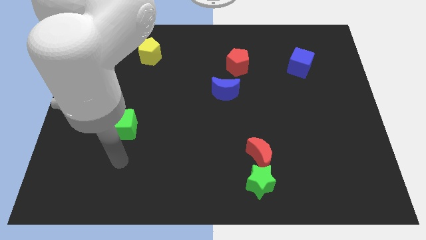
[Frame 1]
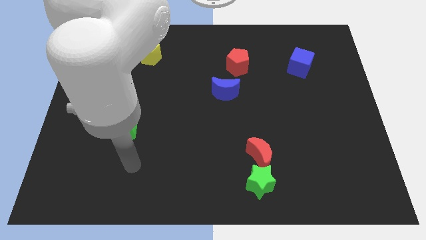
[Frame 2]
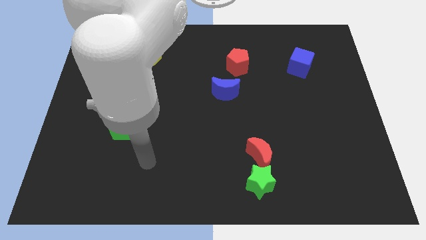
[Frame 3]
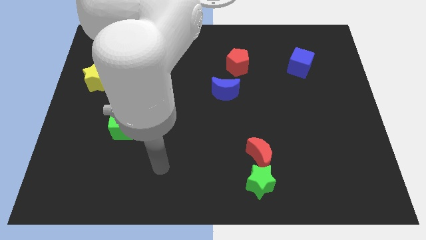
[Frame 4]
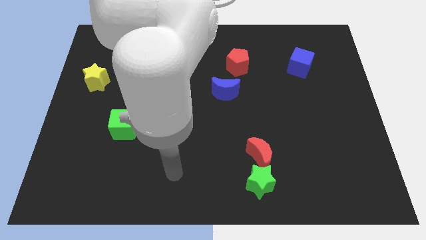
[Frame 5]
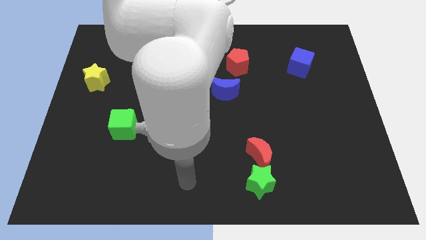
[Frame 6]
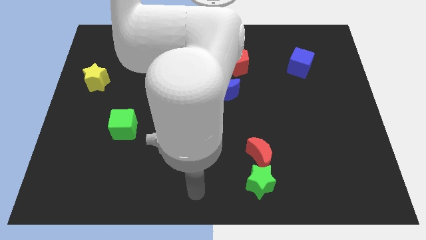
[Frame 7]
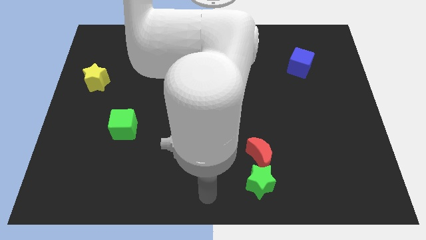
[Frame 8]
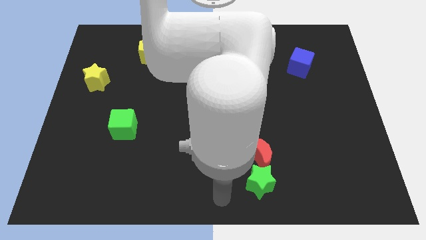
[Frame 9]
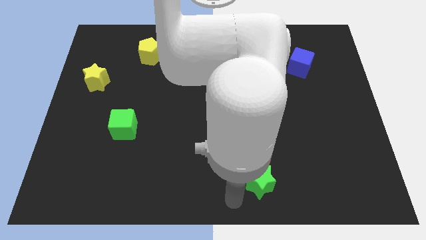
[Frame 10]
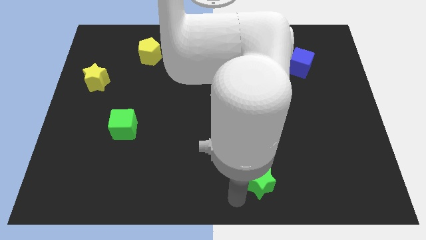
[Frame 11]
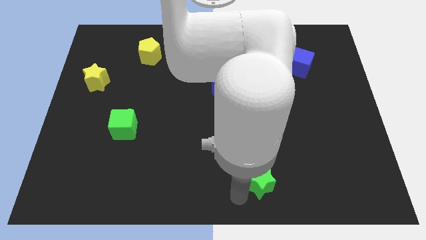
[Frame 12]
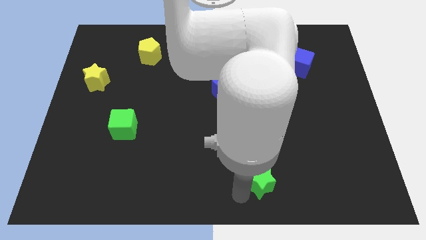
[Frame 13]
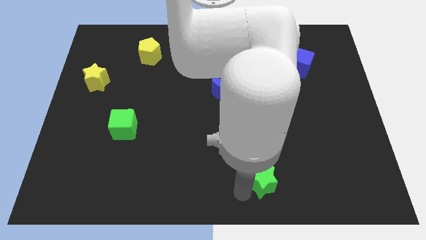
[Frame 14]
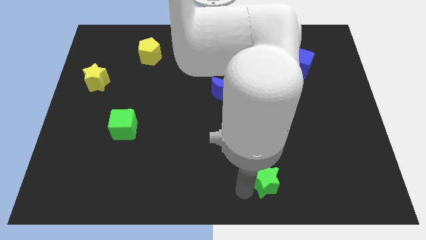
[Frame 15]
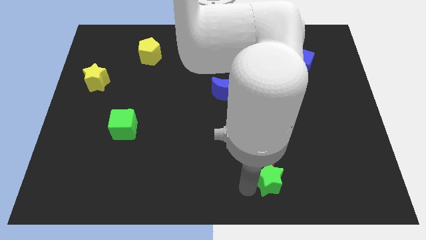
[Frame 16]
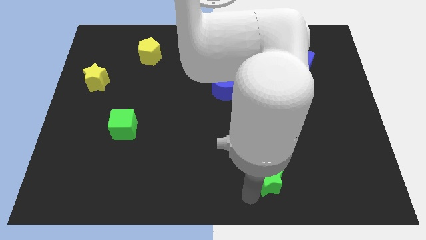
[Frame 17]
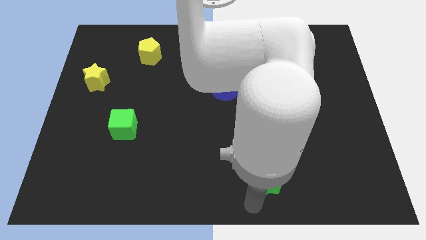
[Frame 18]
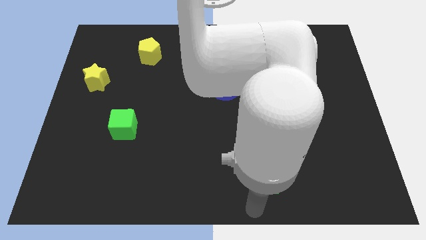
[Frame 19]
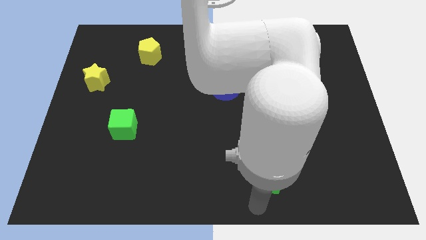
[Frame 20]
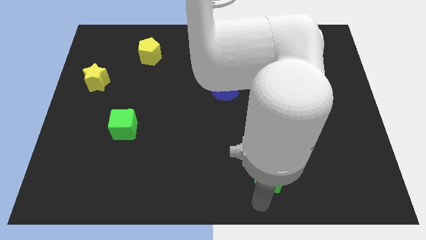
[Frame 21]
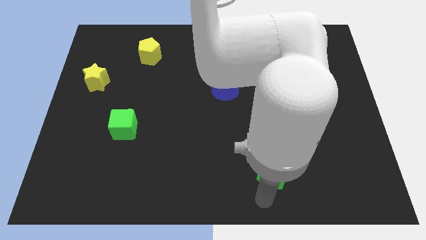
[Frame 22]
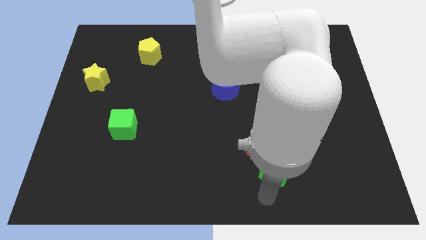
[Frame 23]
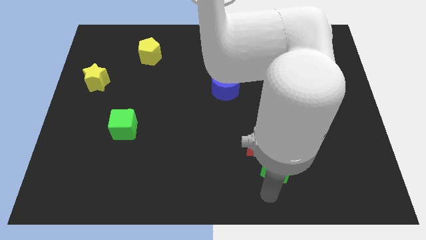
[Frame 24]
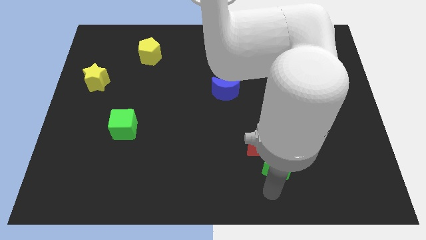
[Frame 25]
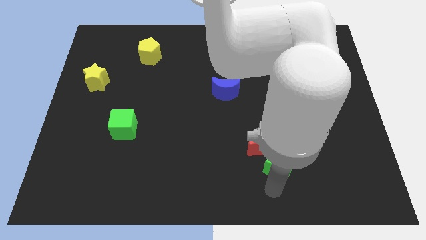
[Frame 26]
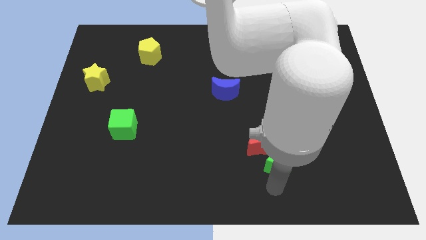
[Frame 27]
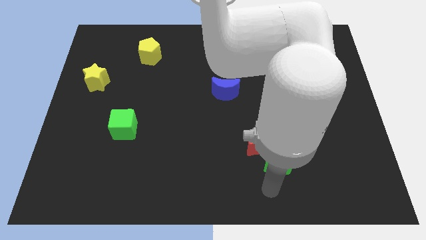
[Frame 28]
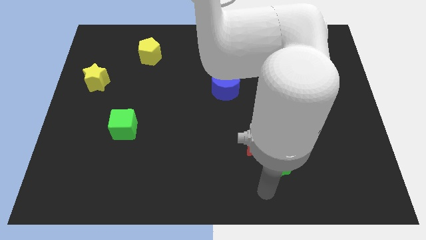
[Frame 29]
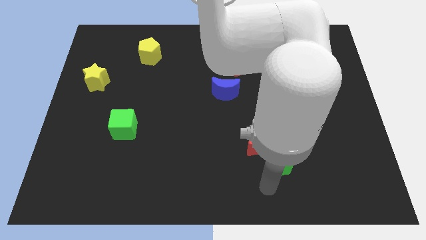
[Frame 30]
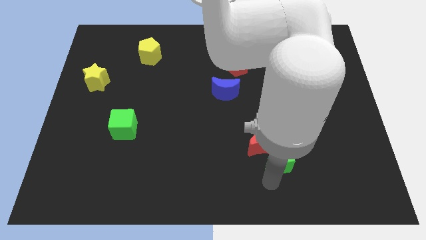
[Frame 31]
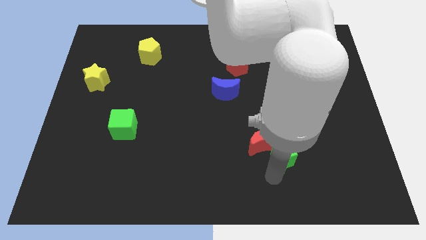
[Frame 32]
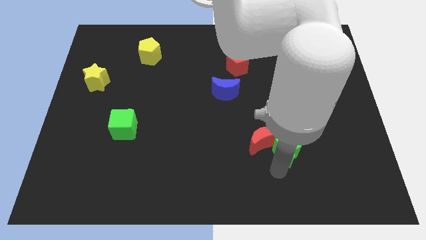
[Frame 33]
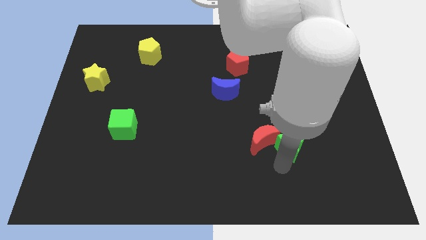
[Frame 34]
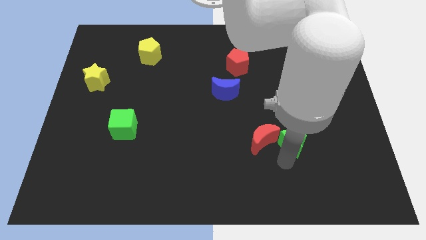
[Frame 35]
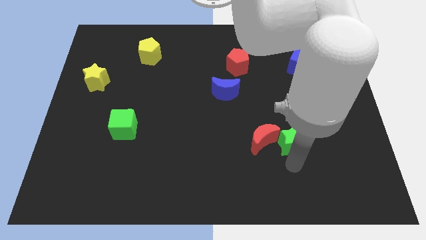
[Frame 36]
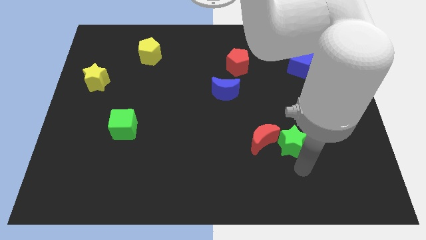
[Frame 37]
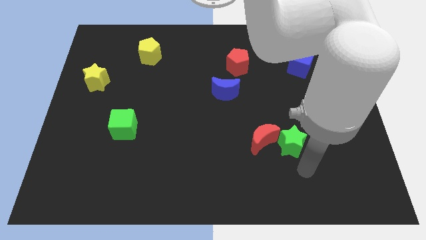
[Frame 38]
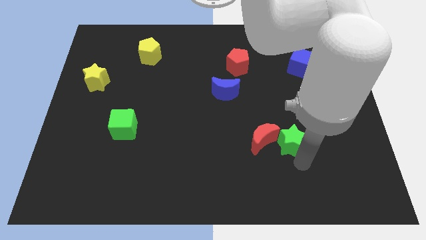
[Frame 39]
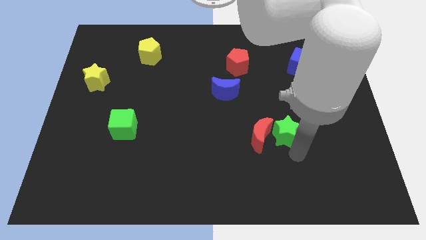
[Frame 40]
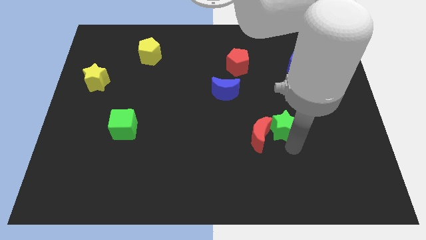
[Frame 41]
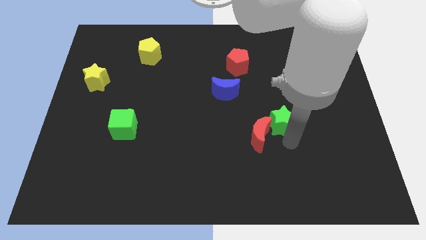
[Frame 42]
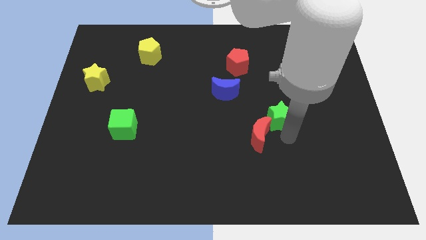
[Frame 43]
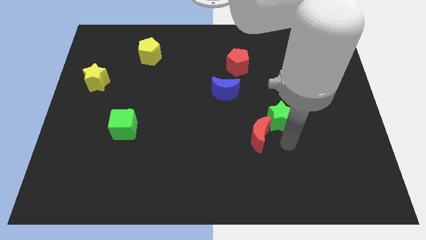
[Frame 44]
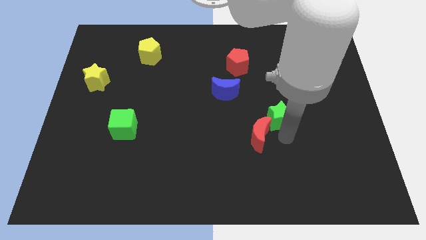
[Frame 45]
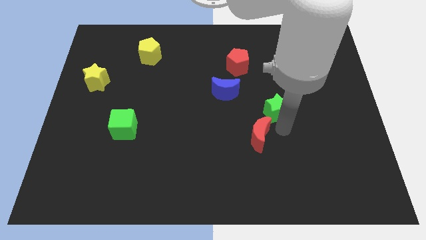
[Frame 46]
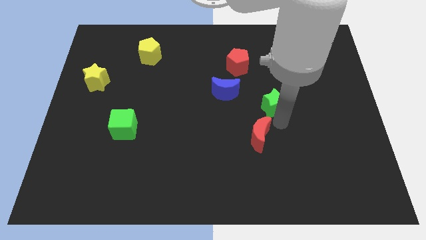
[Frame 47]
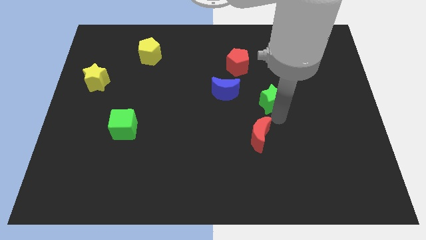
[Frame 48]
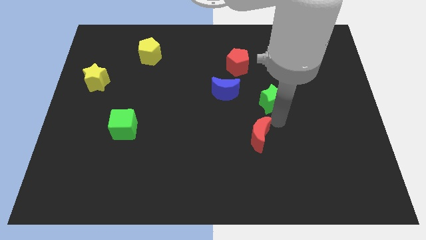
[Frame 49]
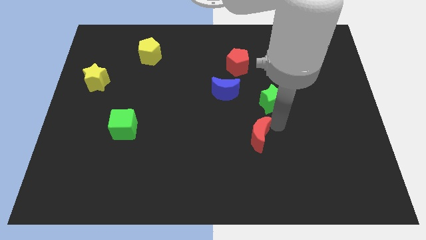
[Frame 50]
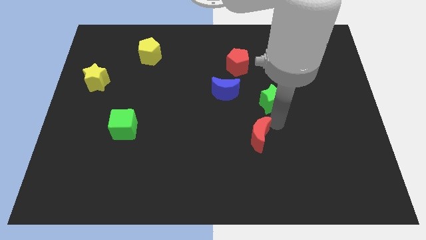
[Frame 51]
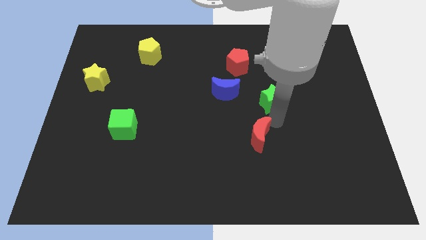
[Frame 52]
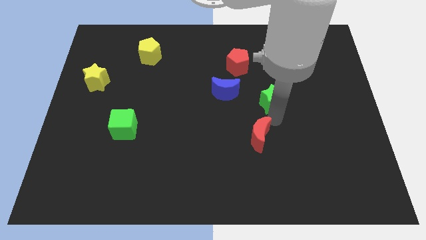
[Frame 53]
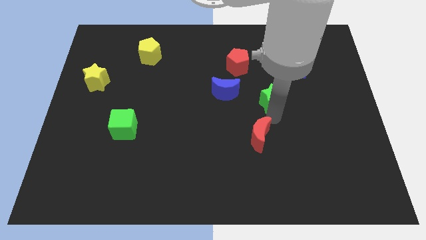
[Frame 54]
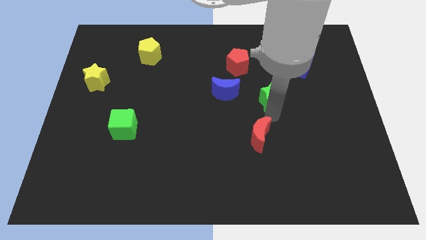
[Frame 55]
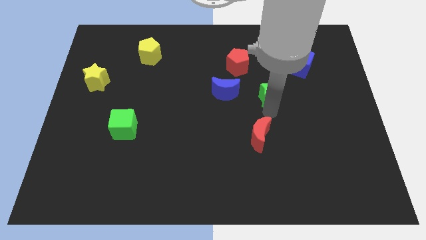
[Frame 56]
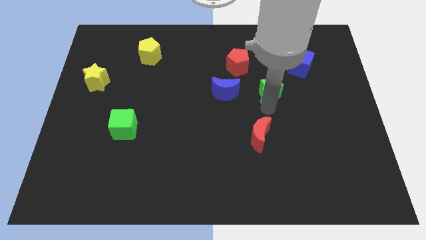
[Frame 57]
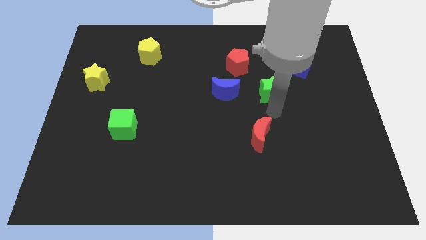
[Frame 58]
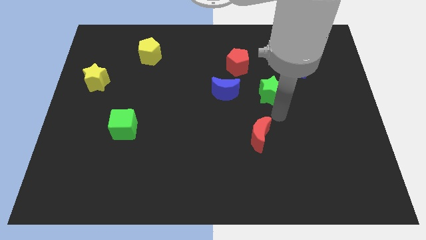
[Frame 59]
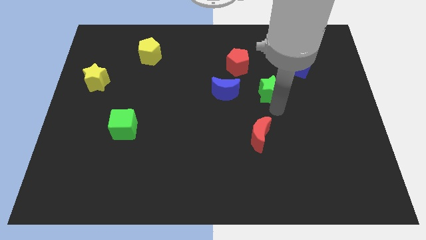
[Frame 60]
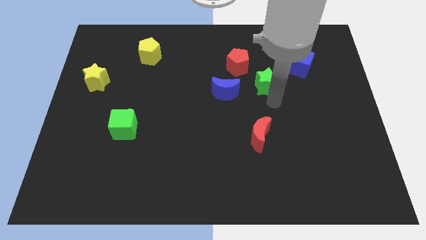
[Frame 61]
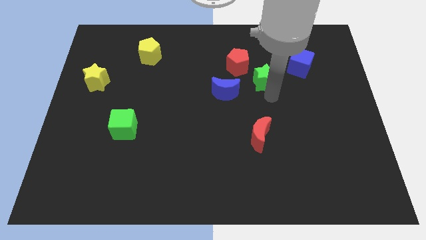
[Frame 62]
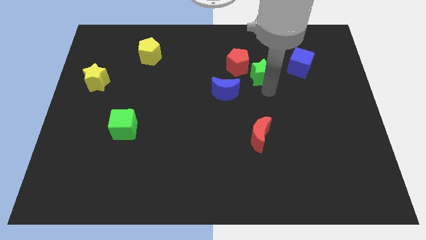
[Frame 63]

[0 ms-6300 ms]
slide the green star left of the blue cube

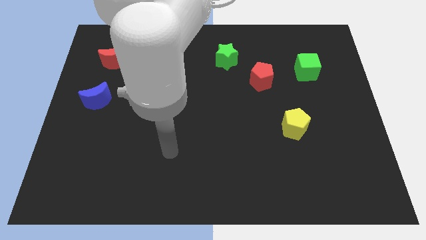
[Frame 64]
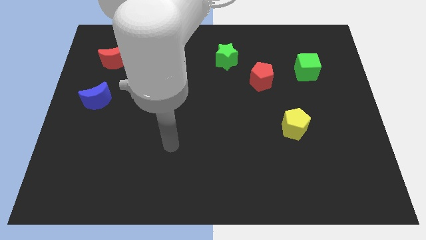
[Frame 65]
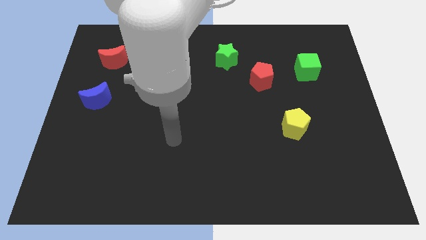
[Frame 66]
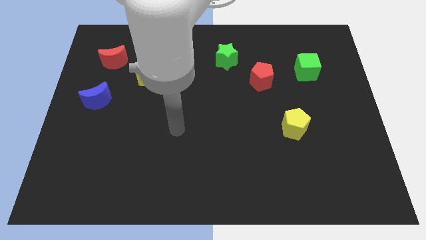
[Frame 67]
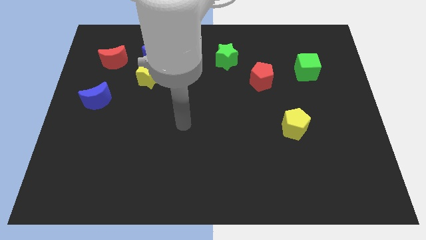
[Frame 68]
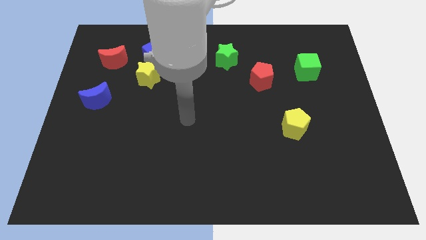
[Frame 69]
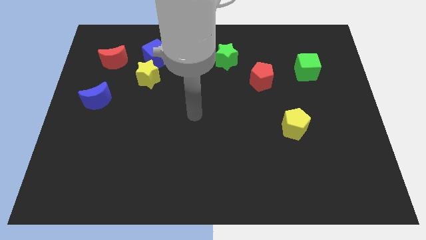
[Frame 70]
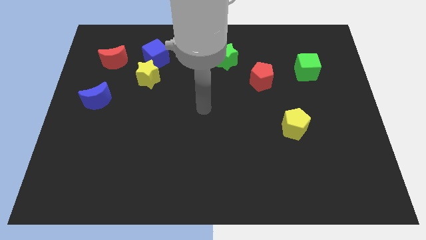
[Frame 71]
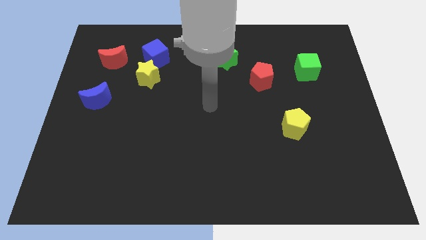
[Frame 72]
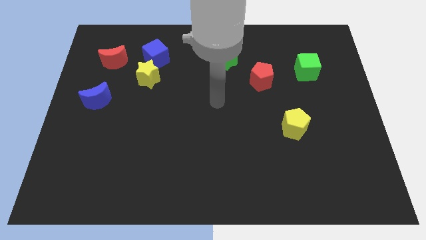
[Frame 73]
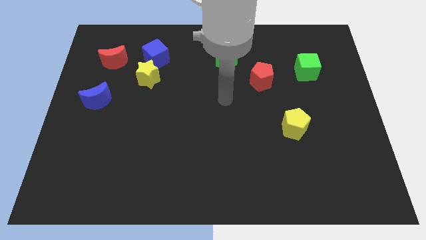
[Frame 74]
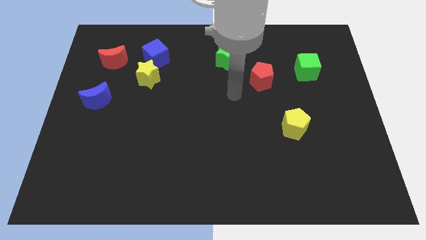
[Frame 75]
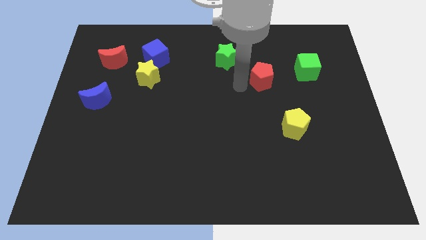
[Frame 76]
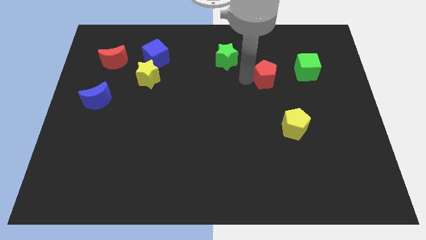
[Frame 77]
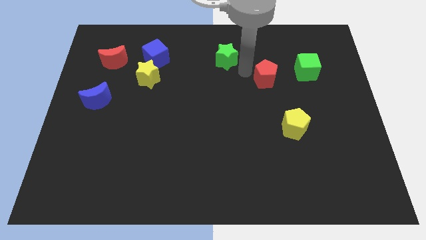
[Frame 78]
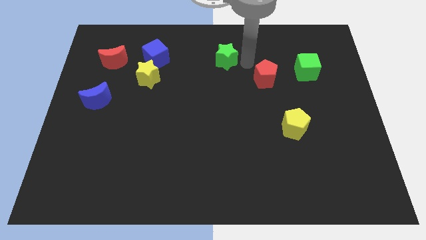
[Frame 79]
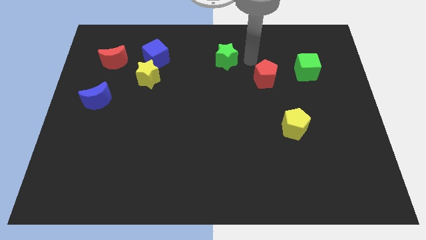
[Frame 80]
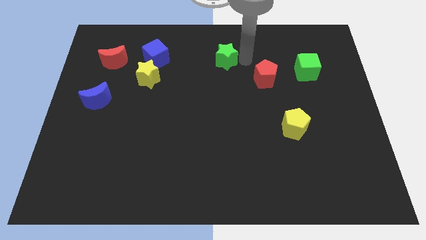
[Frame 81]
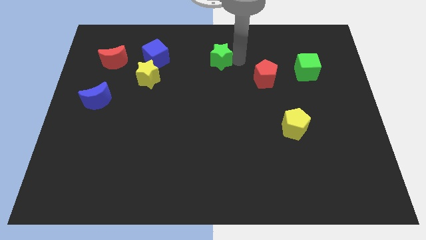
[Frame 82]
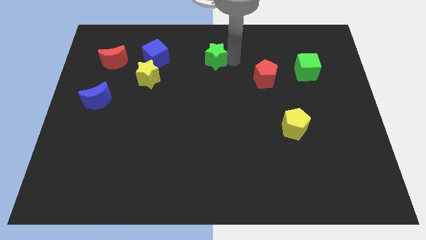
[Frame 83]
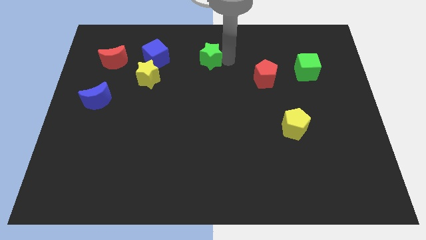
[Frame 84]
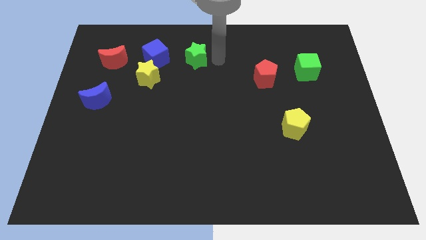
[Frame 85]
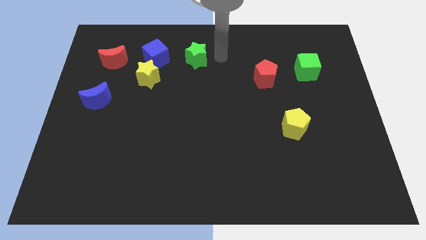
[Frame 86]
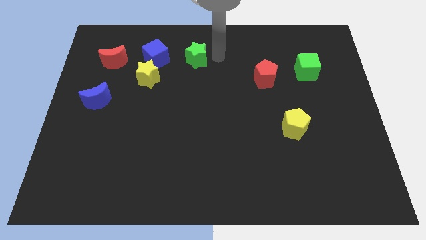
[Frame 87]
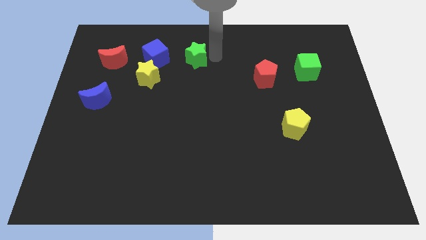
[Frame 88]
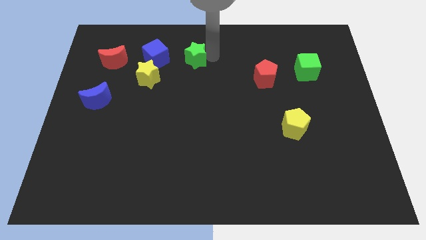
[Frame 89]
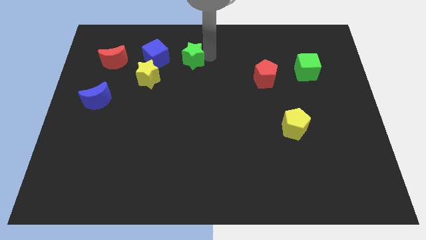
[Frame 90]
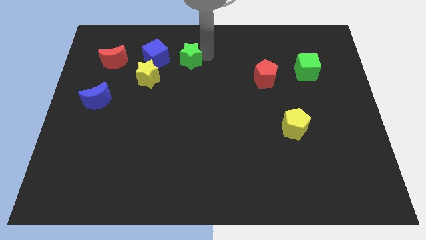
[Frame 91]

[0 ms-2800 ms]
put the green star diagonally up and to the right of the yellow star
